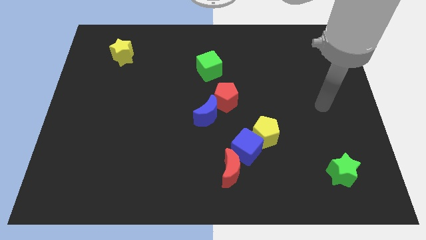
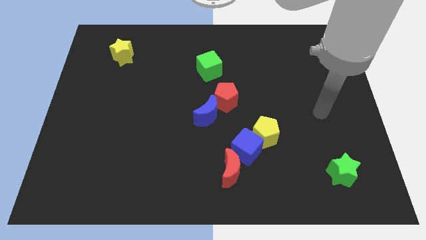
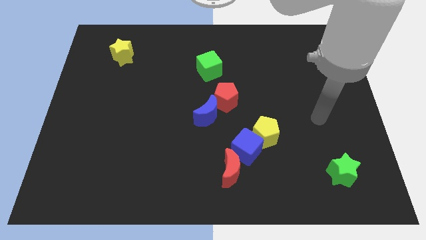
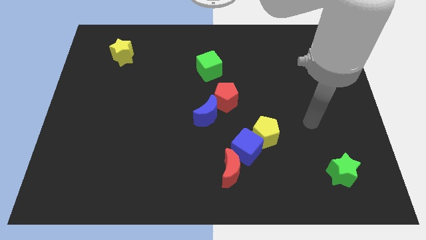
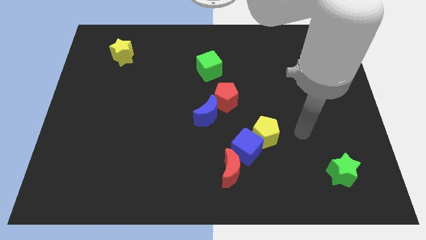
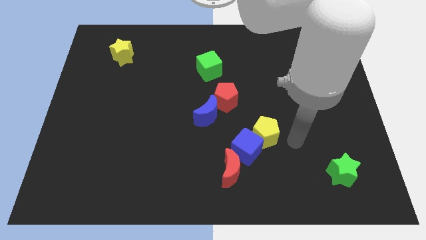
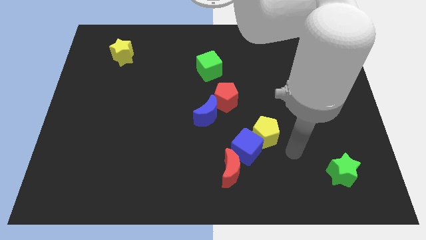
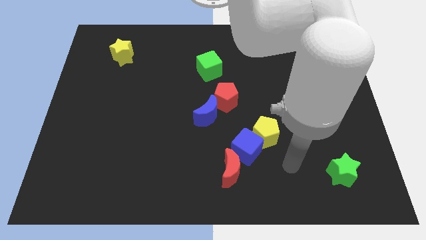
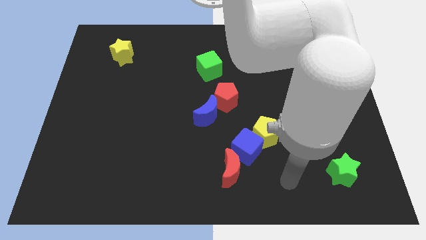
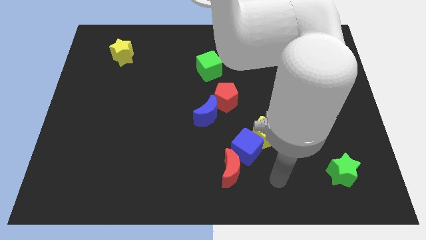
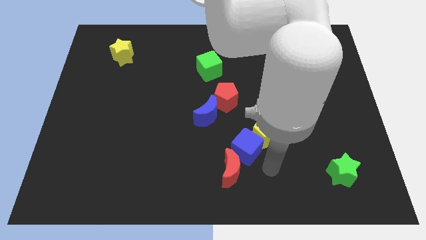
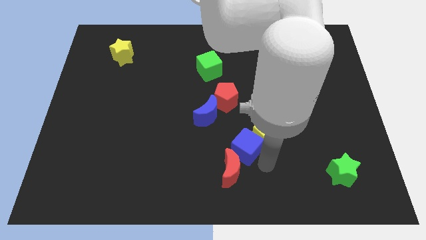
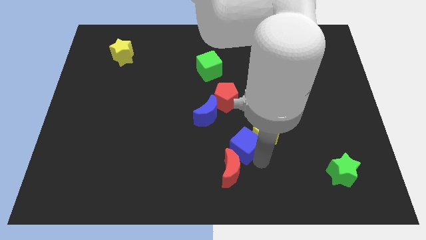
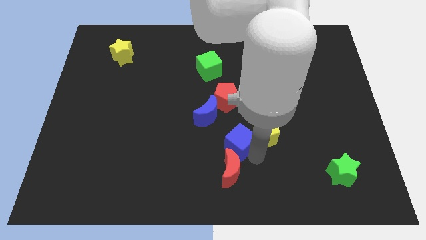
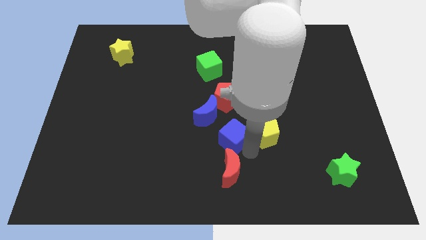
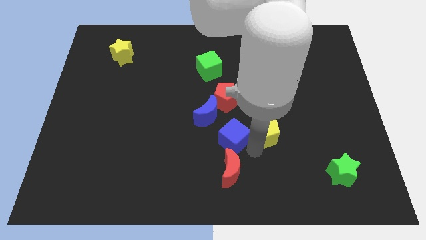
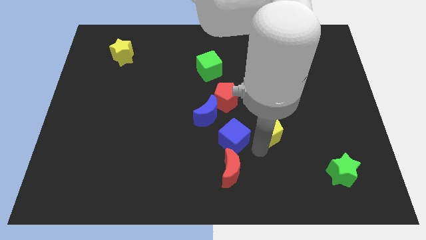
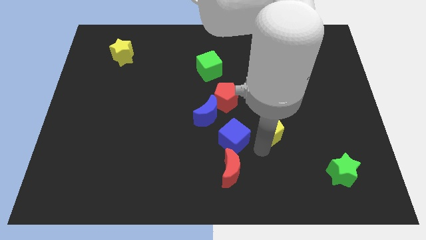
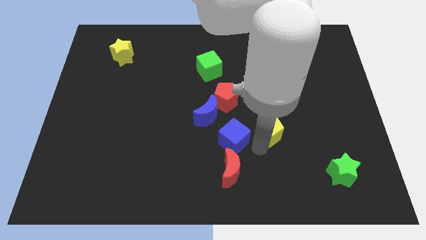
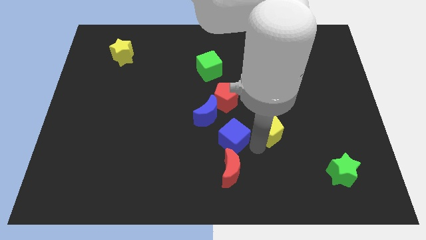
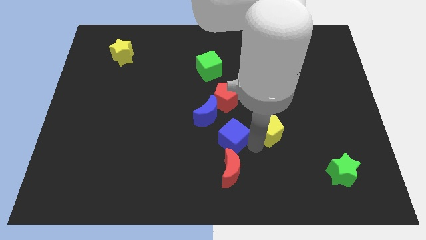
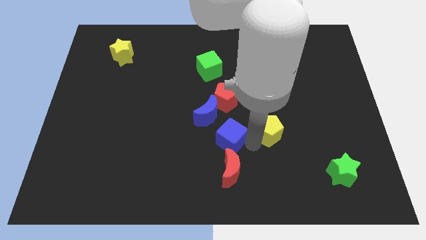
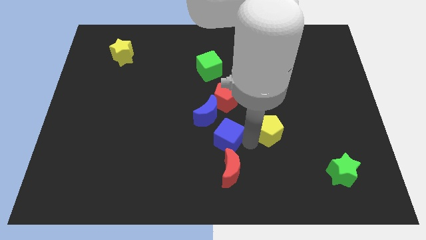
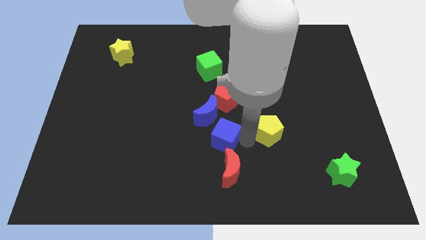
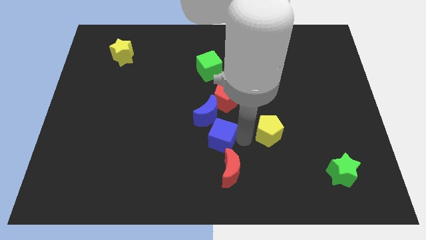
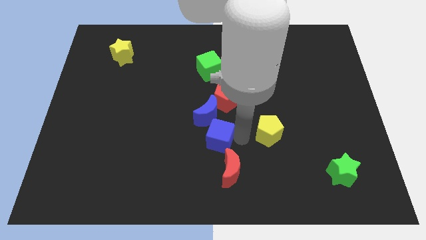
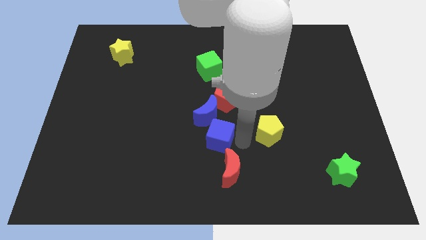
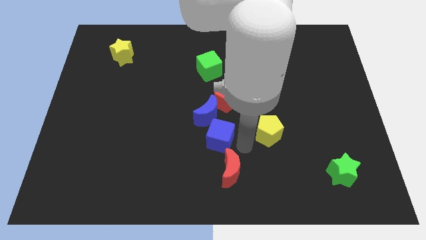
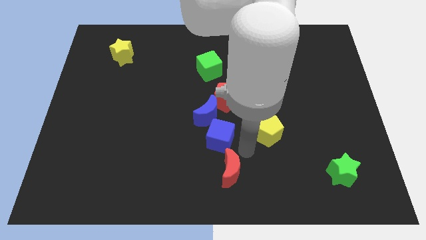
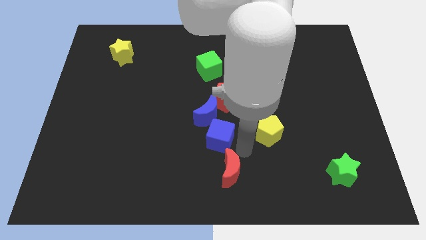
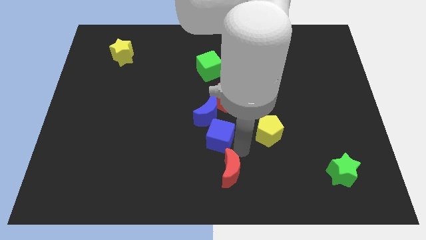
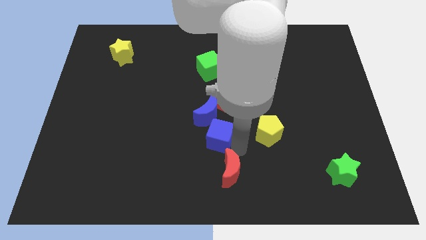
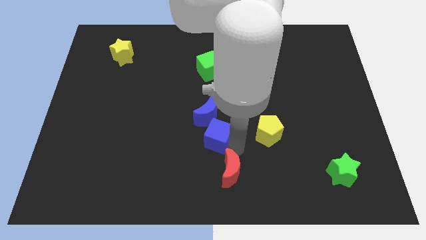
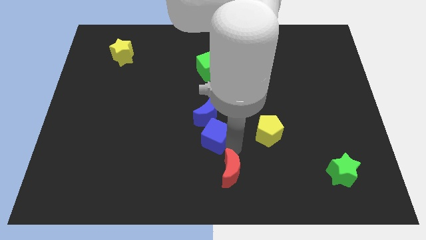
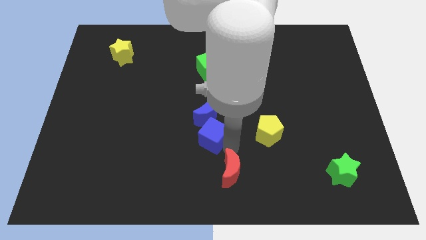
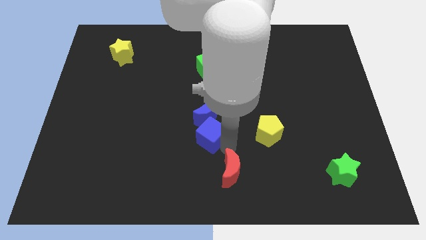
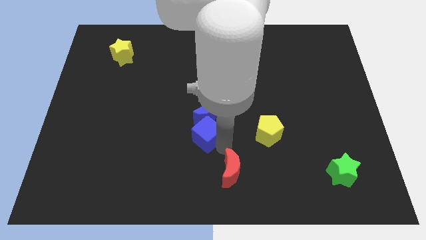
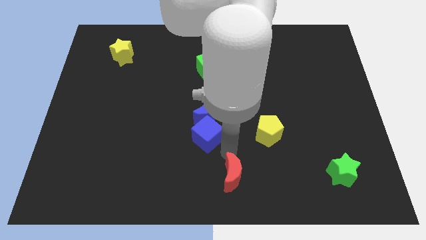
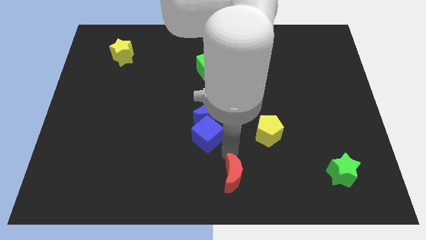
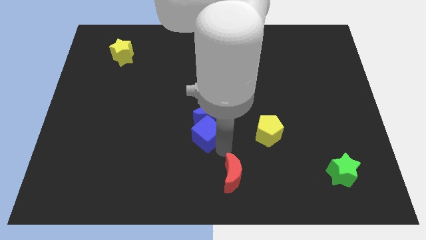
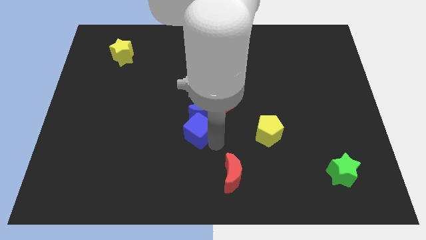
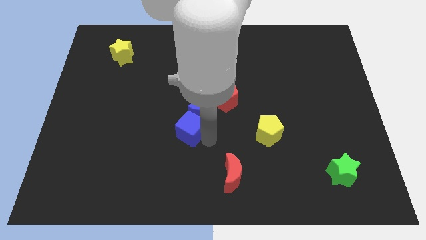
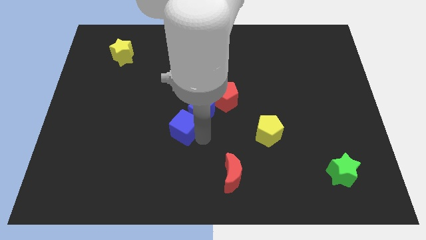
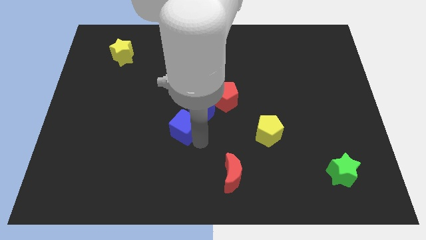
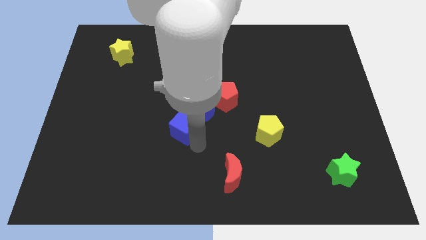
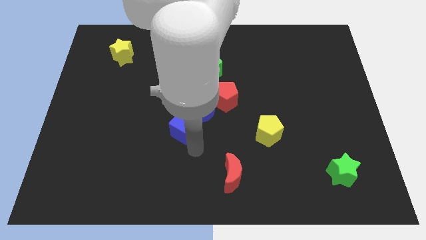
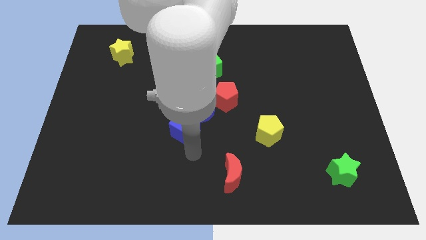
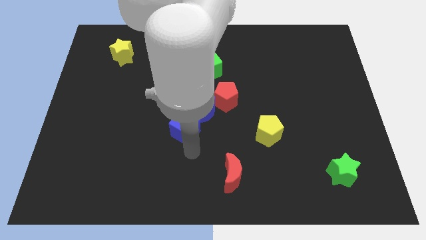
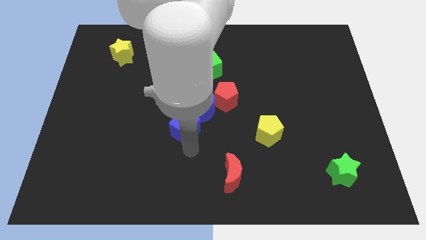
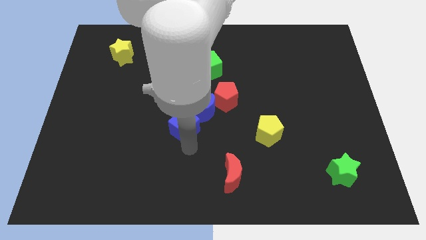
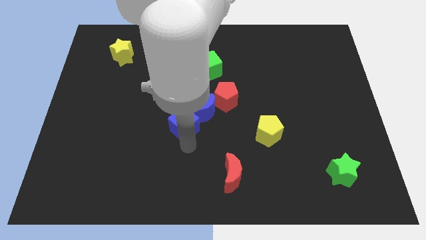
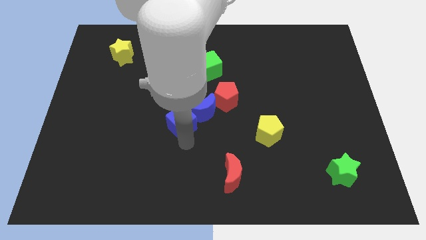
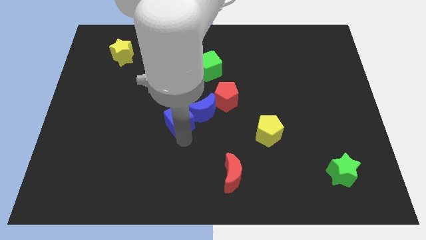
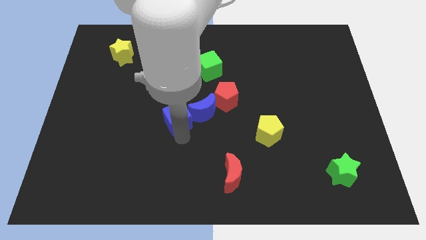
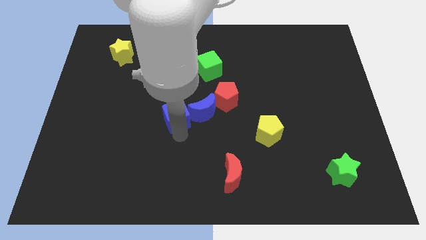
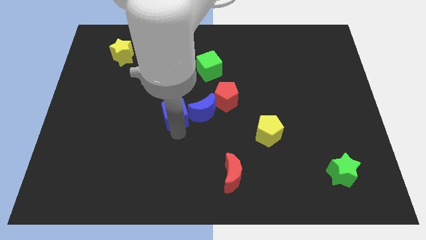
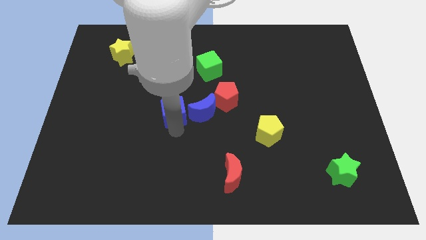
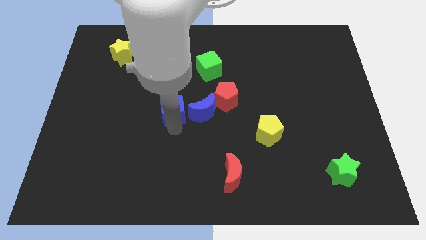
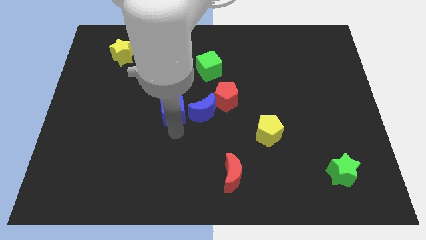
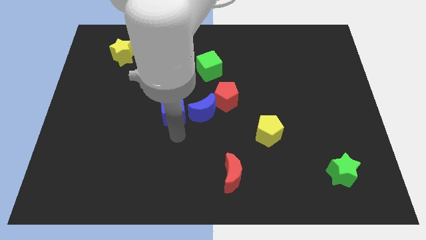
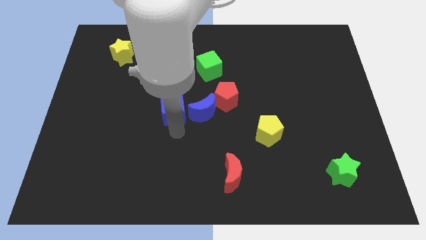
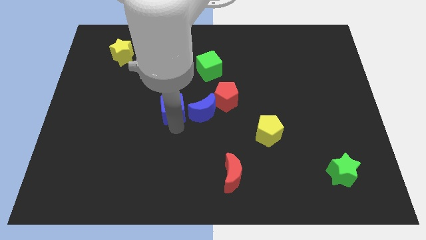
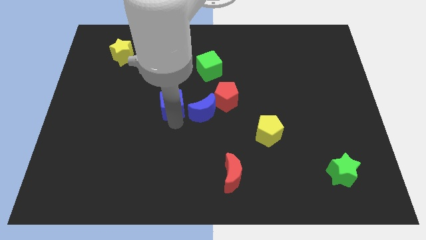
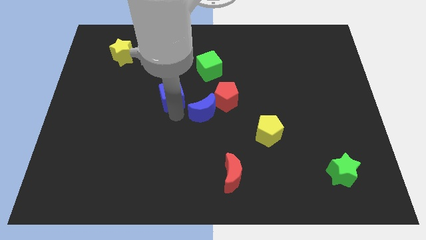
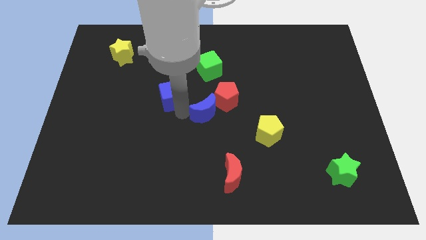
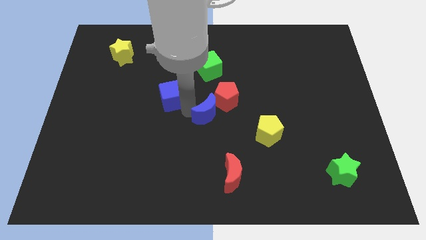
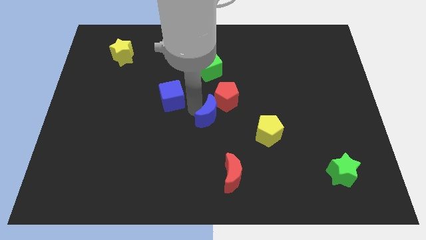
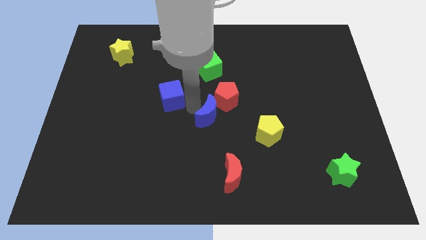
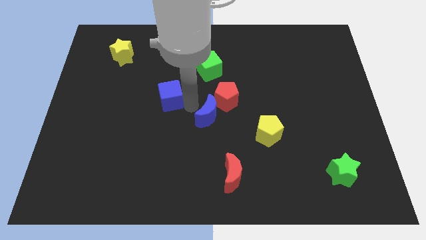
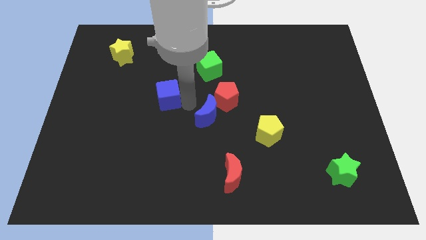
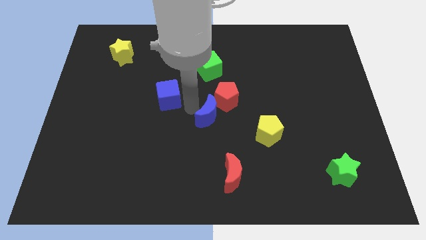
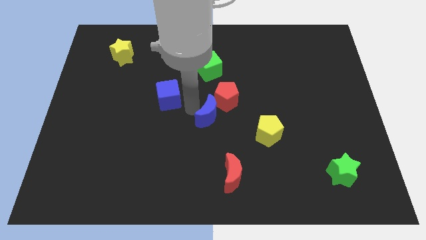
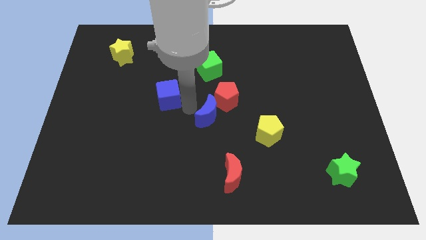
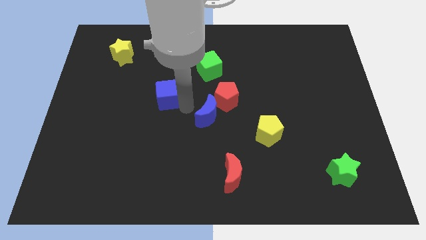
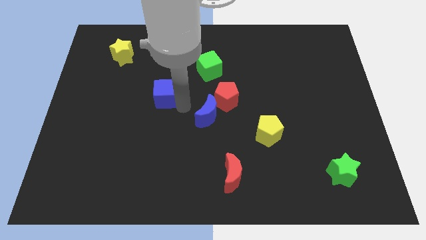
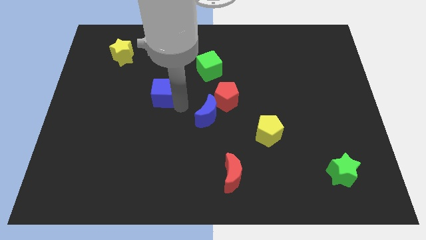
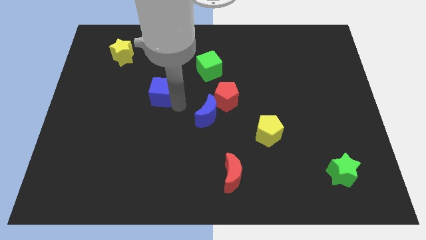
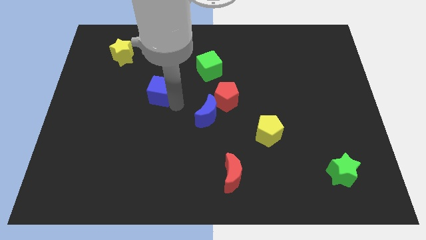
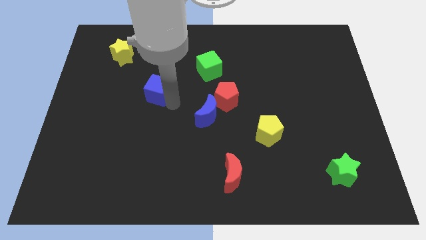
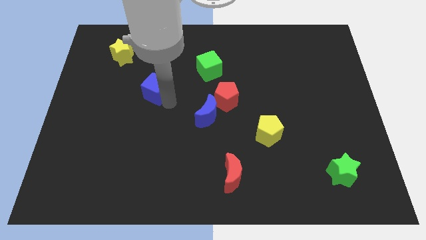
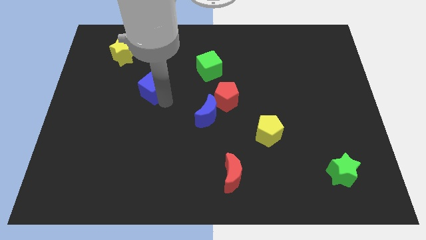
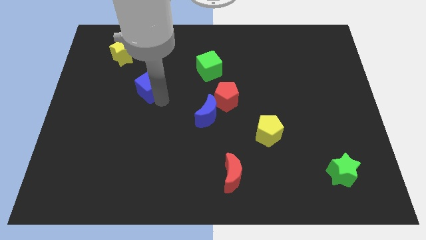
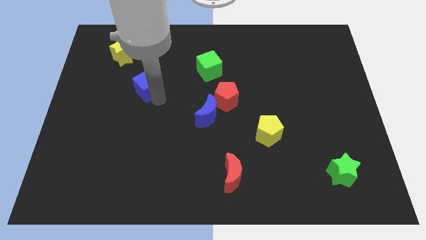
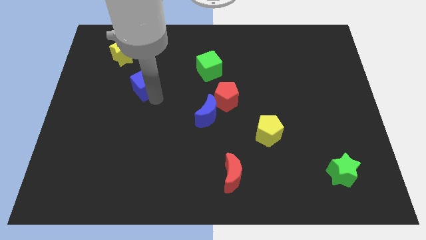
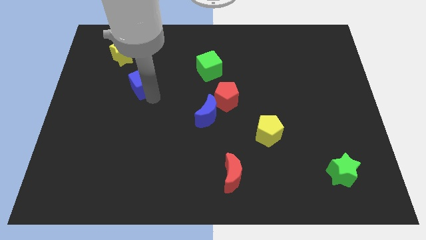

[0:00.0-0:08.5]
put the blue cube to the bottom right of the yellow star
